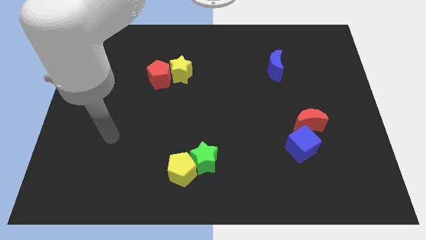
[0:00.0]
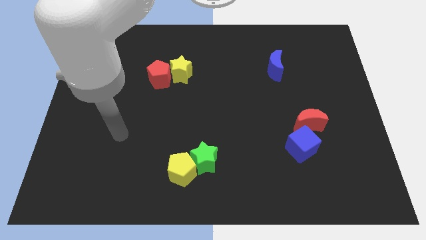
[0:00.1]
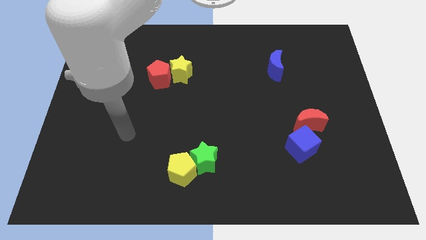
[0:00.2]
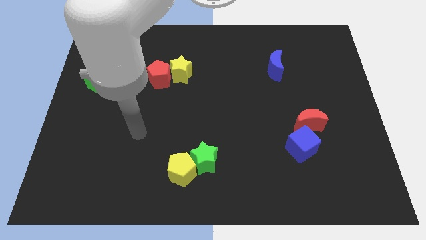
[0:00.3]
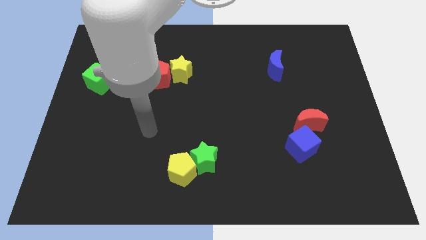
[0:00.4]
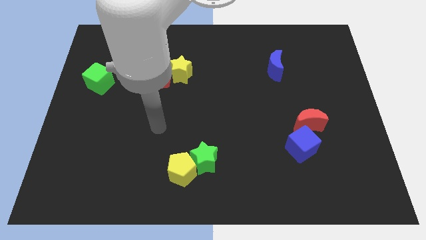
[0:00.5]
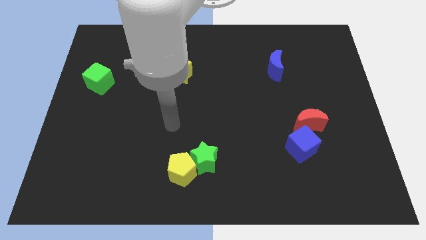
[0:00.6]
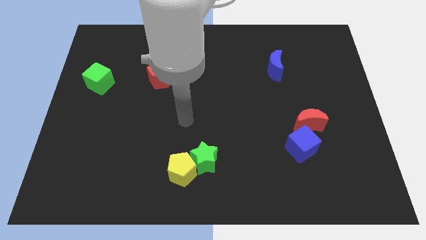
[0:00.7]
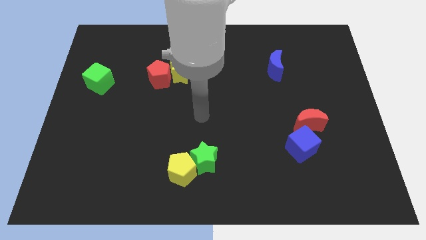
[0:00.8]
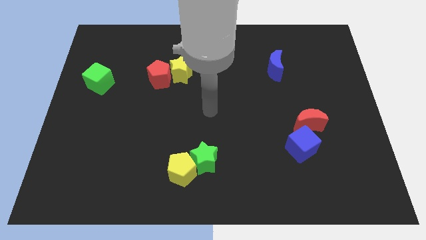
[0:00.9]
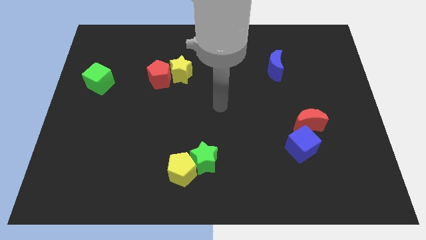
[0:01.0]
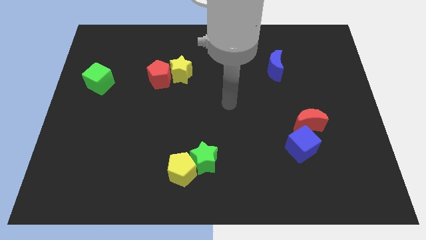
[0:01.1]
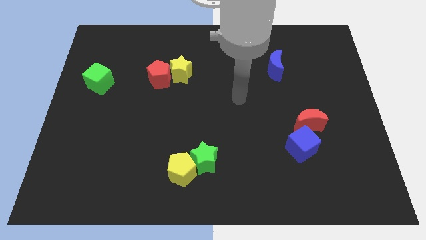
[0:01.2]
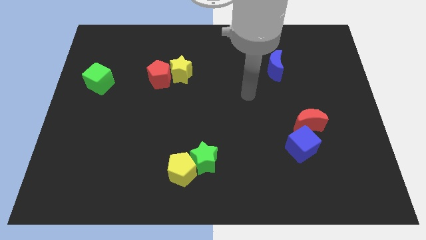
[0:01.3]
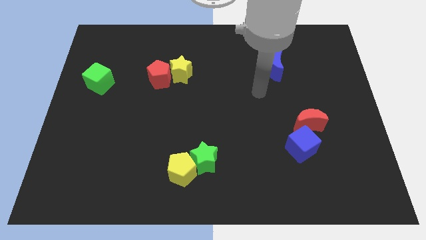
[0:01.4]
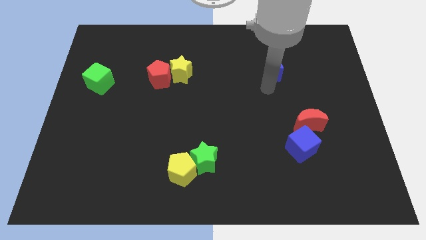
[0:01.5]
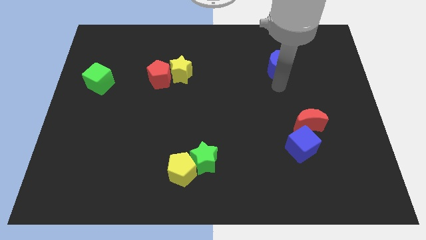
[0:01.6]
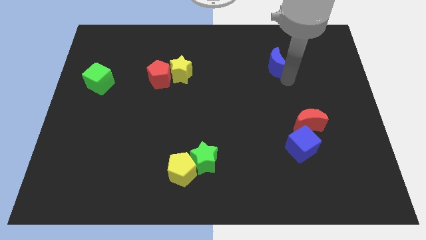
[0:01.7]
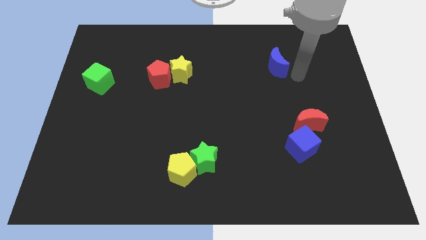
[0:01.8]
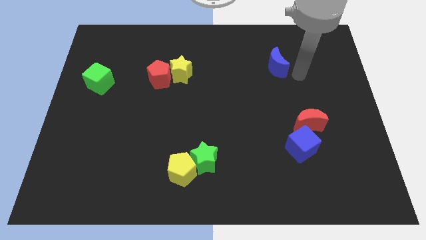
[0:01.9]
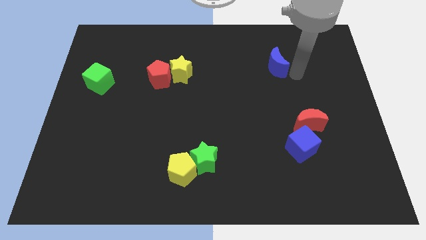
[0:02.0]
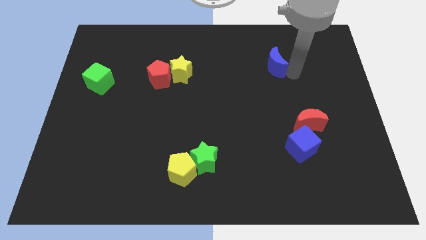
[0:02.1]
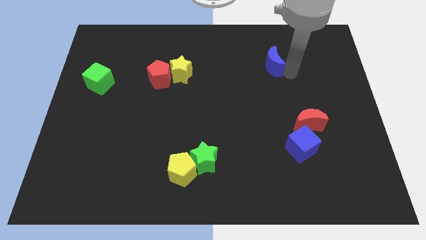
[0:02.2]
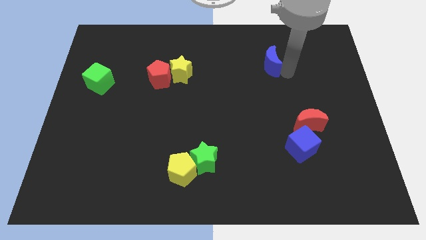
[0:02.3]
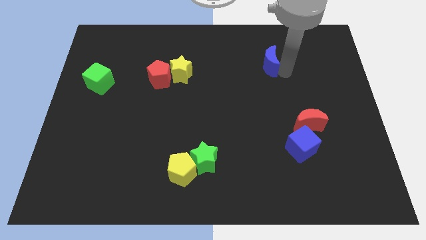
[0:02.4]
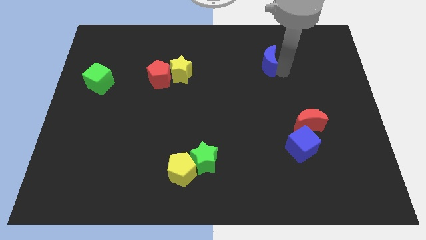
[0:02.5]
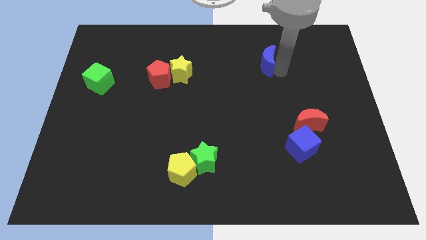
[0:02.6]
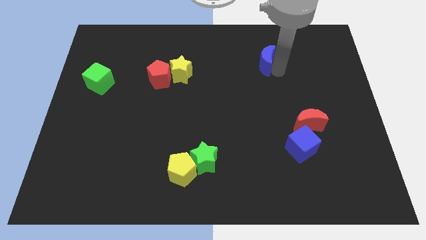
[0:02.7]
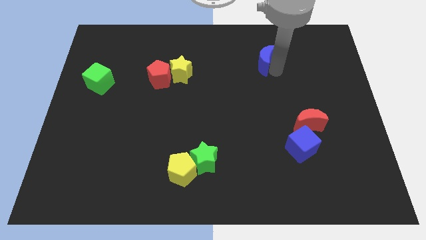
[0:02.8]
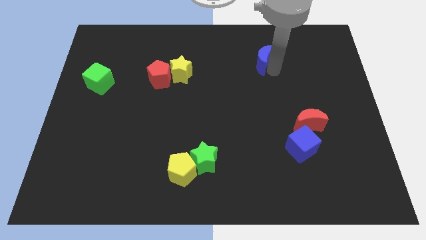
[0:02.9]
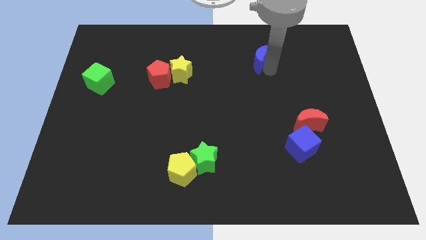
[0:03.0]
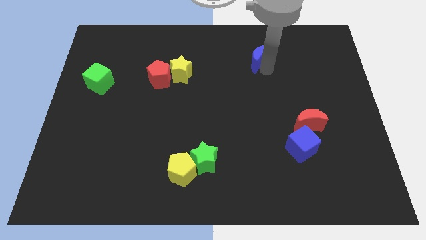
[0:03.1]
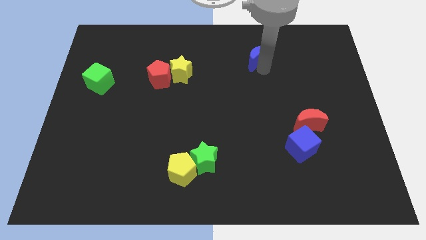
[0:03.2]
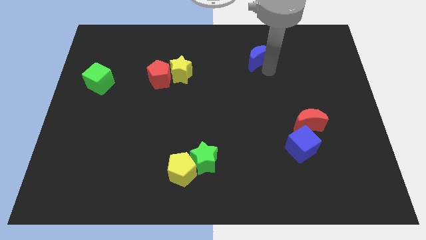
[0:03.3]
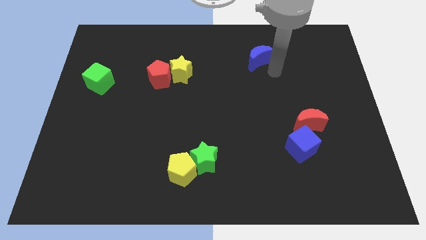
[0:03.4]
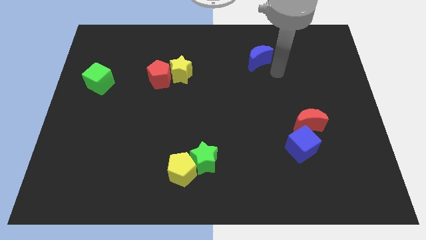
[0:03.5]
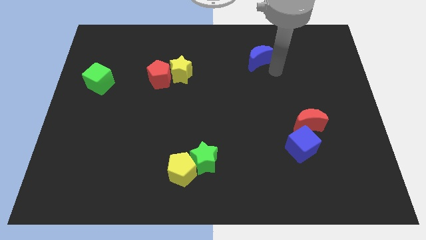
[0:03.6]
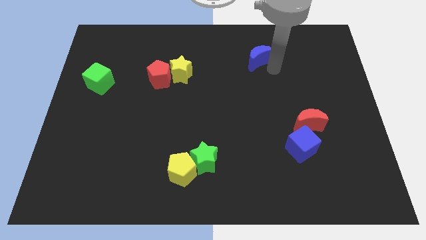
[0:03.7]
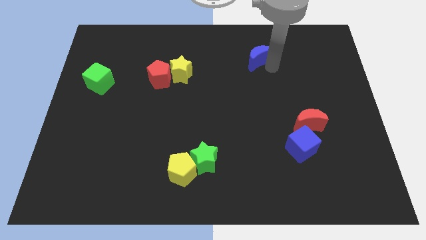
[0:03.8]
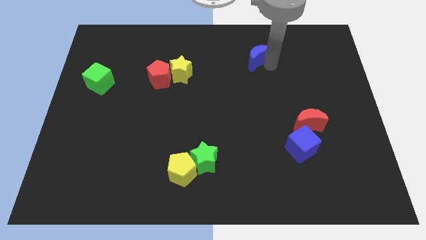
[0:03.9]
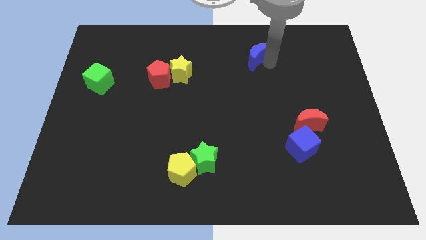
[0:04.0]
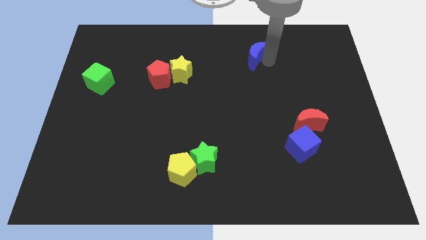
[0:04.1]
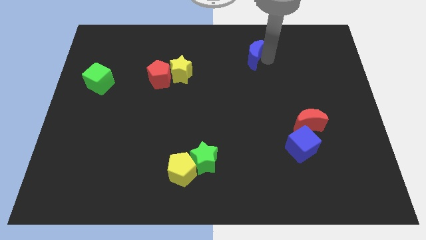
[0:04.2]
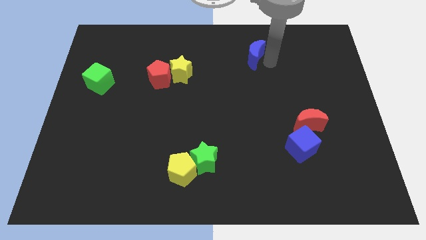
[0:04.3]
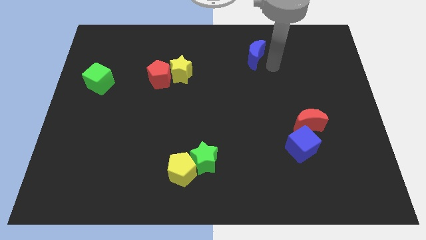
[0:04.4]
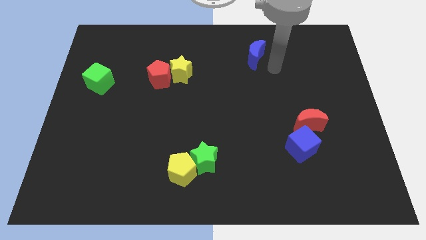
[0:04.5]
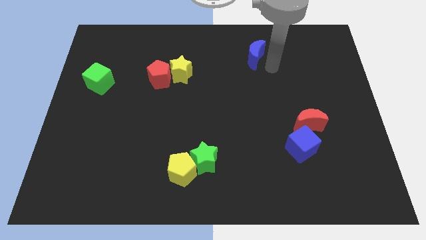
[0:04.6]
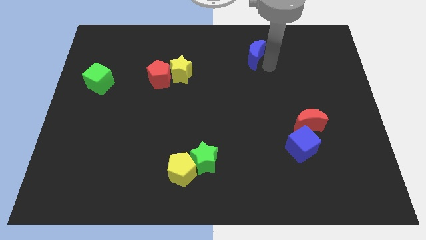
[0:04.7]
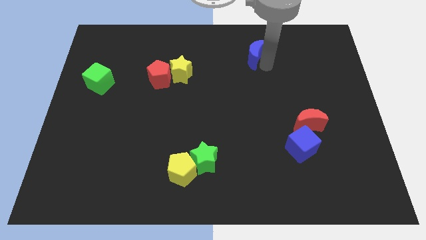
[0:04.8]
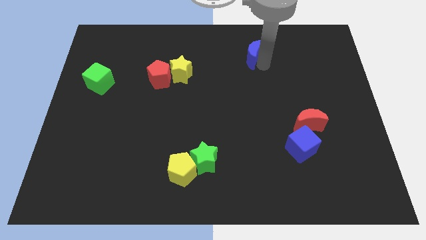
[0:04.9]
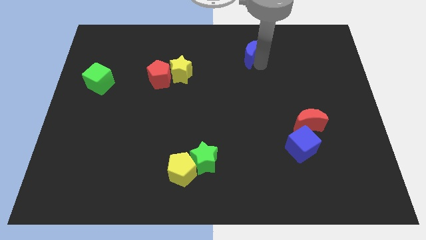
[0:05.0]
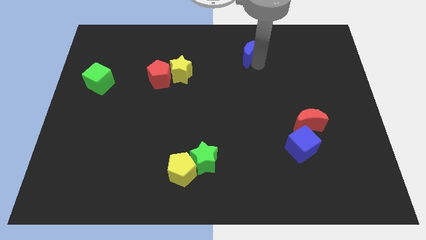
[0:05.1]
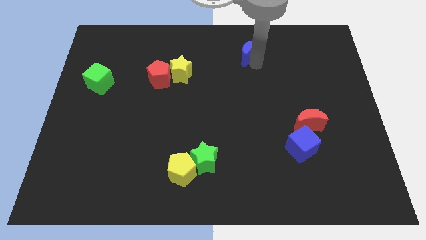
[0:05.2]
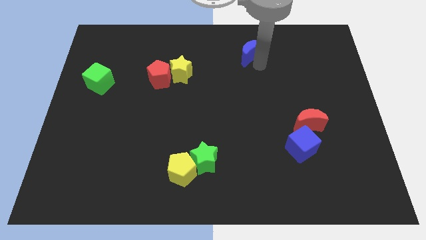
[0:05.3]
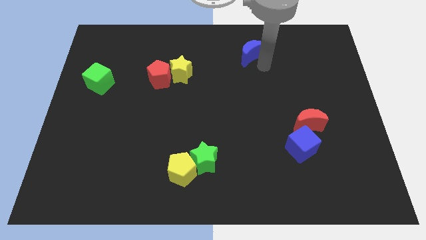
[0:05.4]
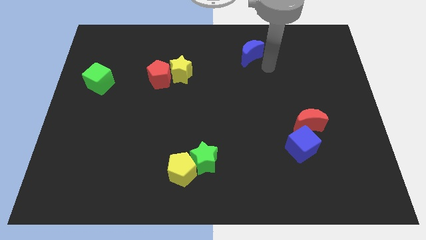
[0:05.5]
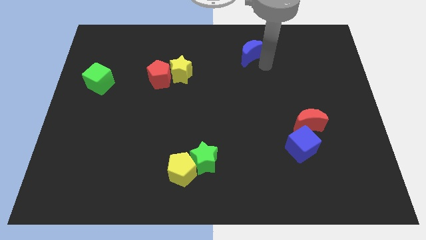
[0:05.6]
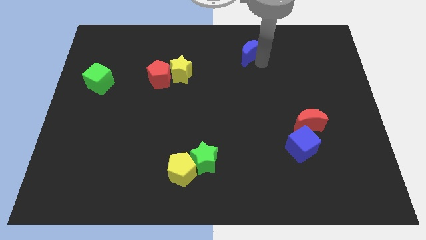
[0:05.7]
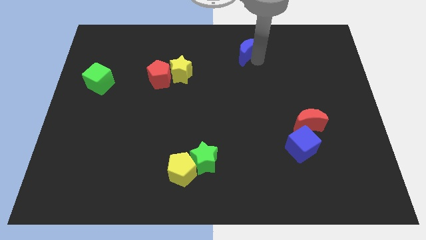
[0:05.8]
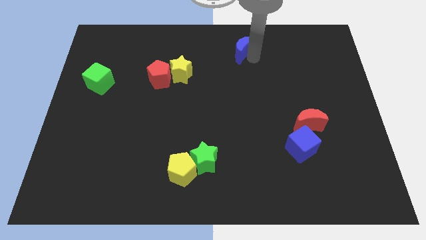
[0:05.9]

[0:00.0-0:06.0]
move the blue moon to the top side

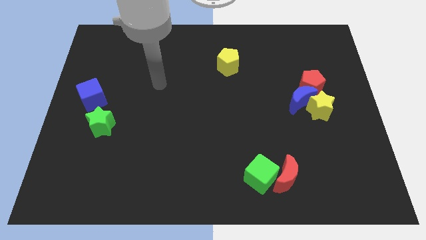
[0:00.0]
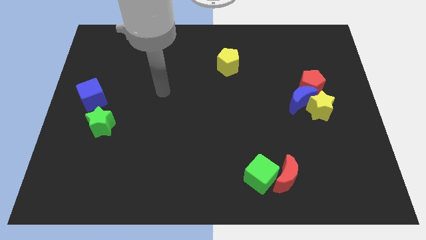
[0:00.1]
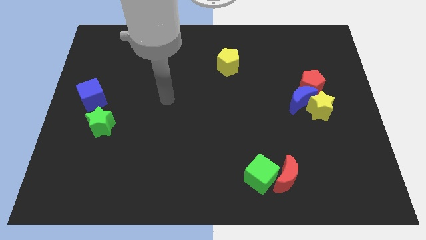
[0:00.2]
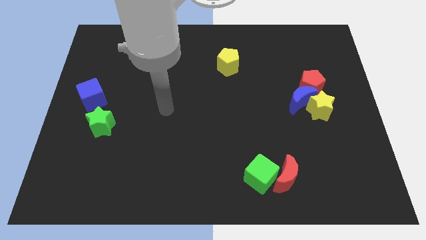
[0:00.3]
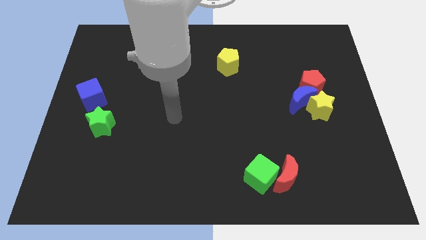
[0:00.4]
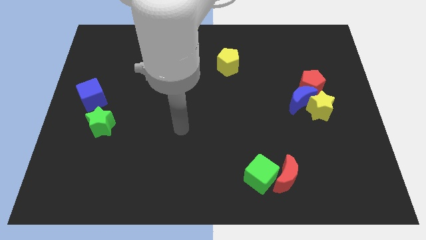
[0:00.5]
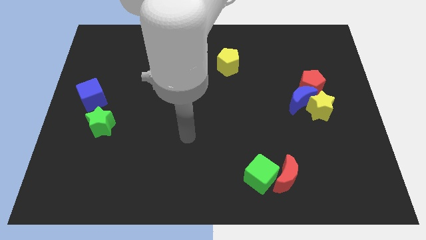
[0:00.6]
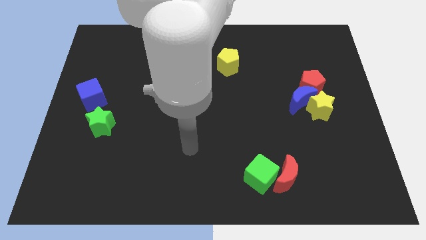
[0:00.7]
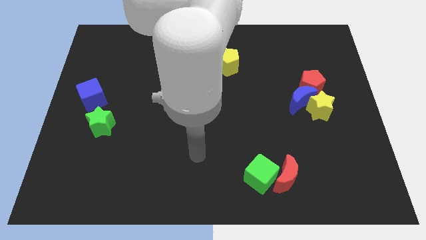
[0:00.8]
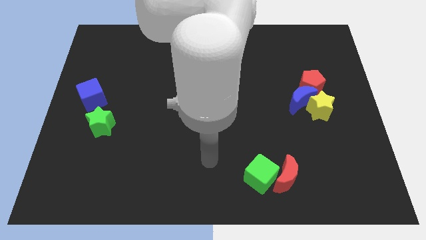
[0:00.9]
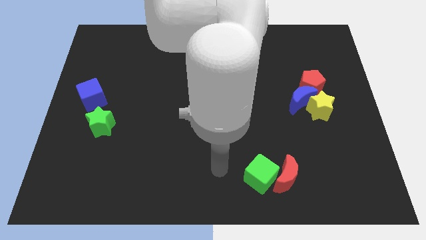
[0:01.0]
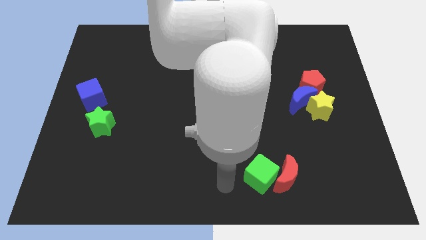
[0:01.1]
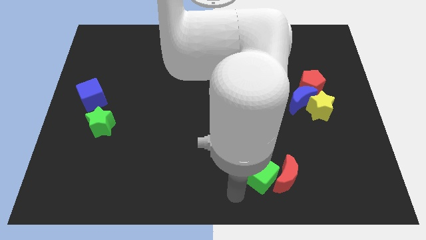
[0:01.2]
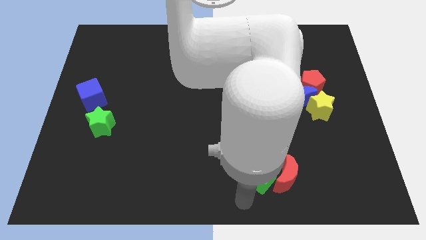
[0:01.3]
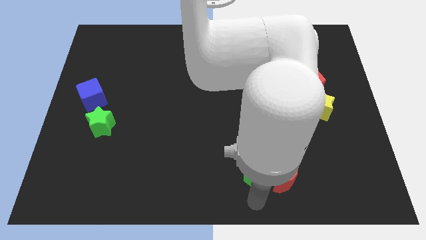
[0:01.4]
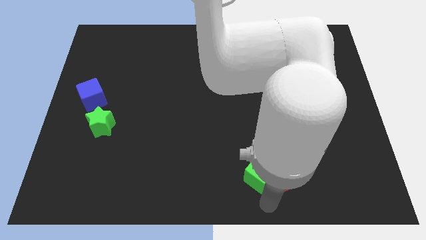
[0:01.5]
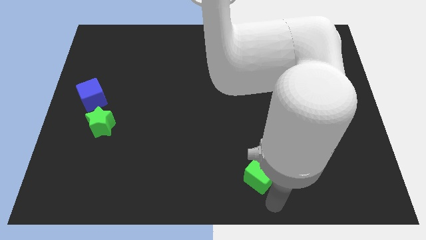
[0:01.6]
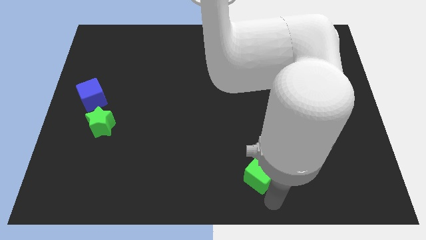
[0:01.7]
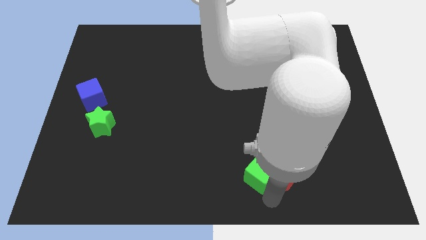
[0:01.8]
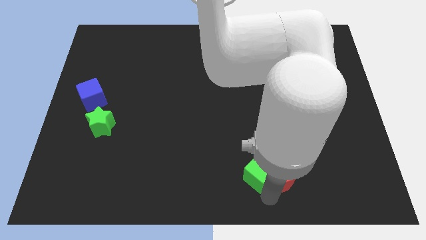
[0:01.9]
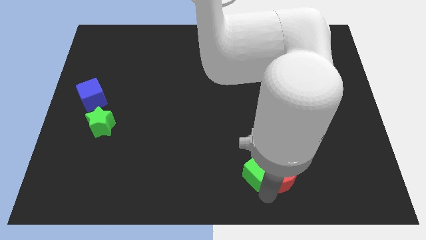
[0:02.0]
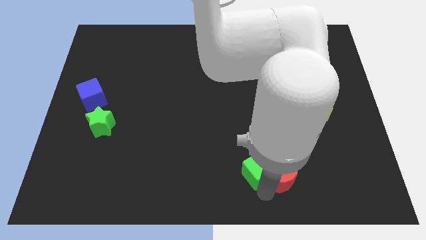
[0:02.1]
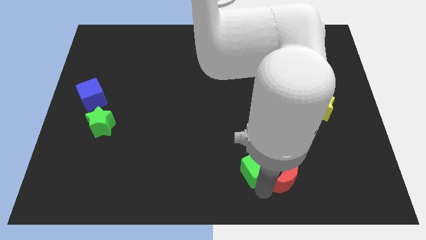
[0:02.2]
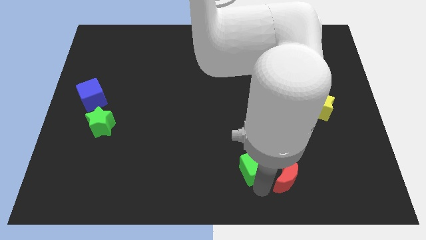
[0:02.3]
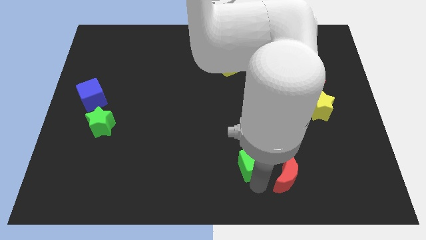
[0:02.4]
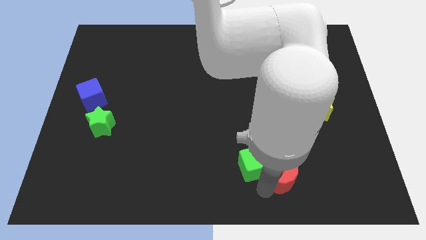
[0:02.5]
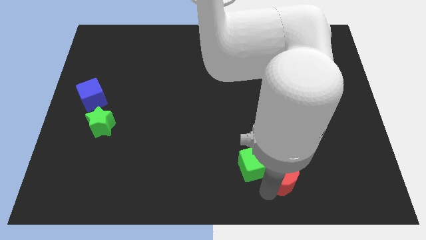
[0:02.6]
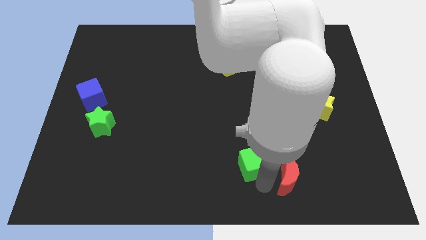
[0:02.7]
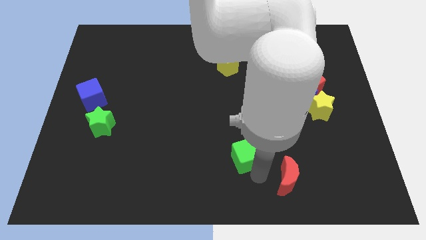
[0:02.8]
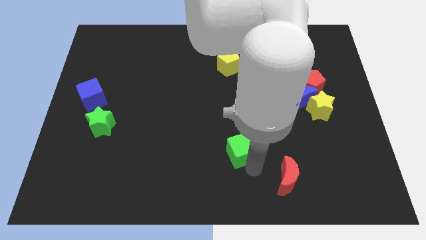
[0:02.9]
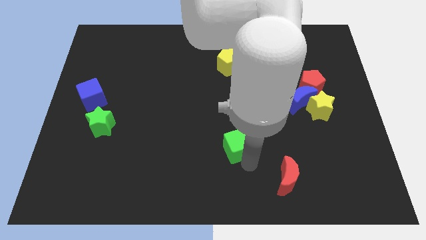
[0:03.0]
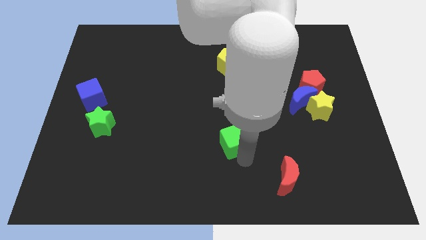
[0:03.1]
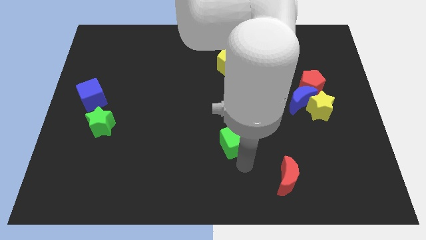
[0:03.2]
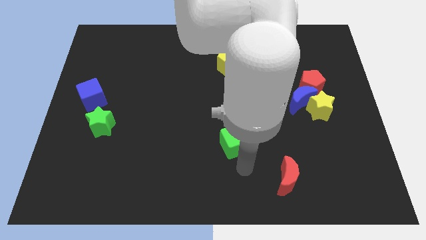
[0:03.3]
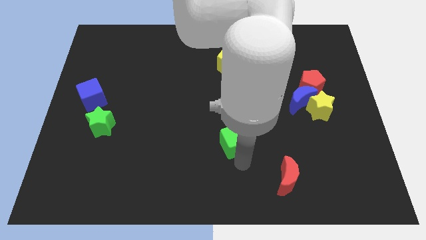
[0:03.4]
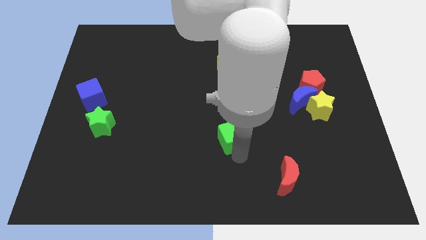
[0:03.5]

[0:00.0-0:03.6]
put the green cube to the center of the board
